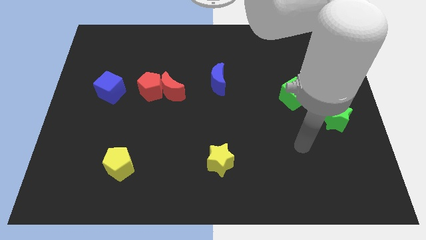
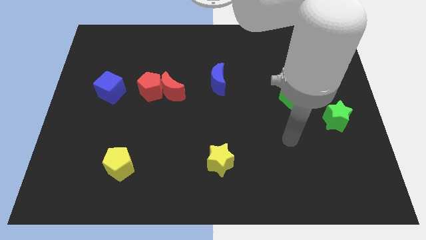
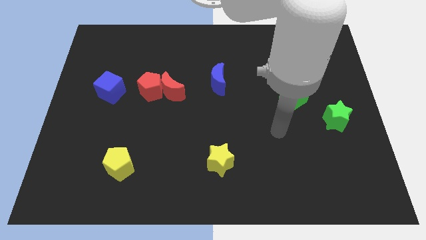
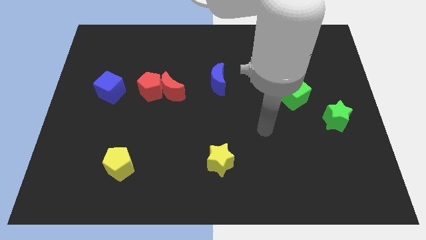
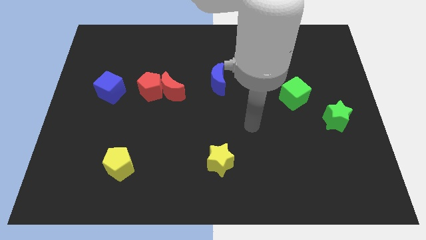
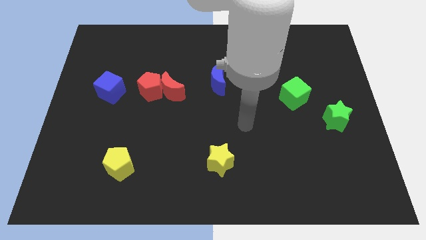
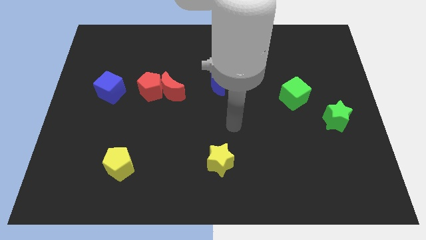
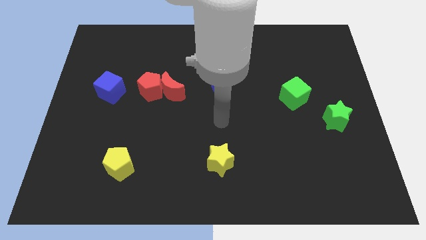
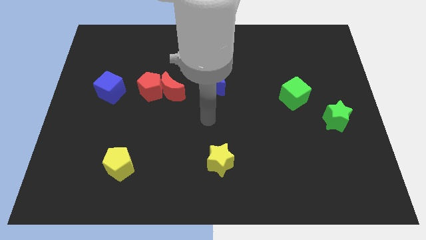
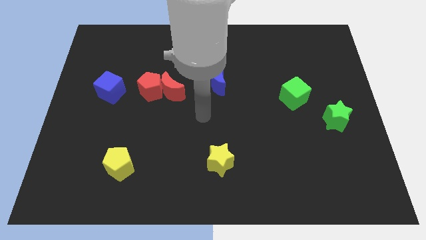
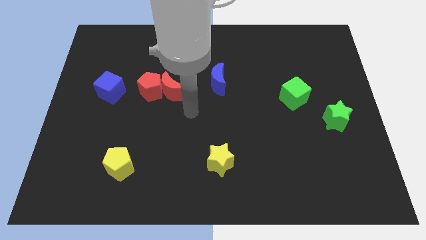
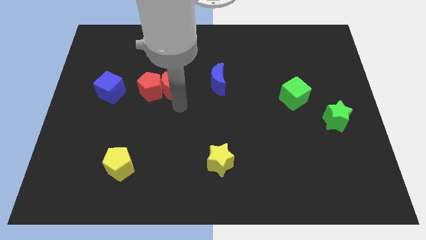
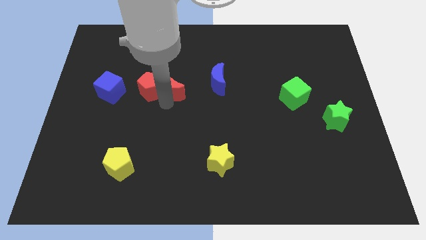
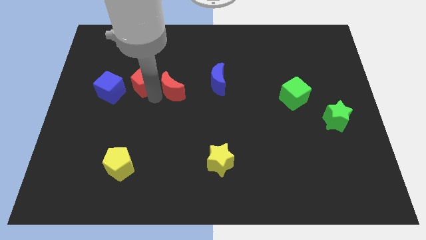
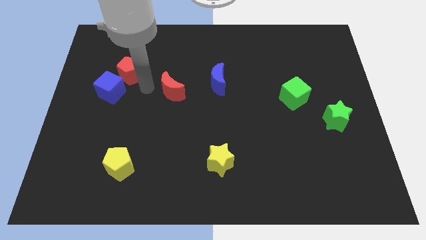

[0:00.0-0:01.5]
pull the red moon apart from the red pentagon

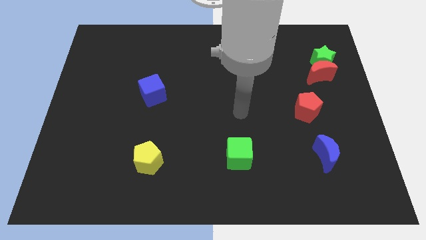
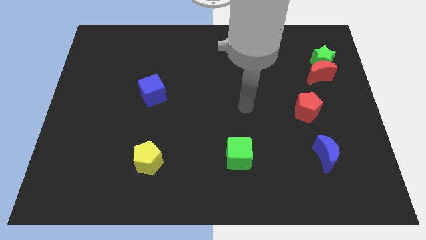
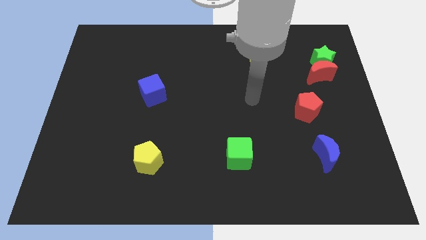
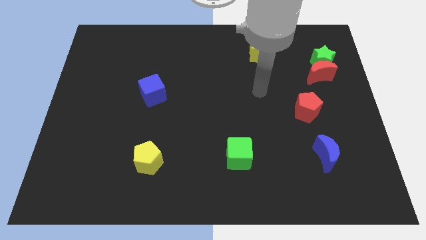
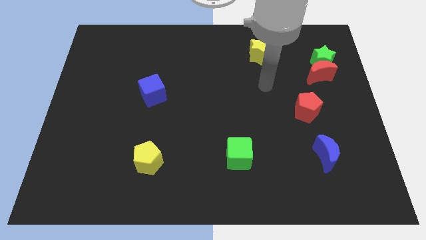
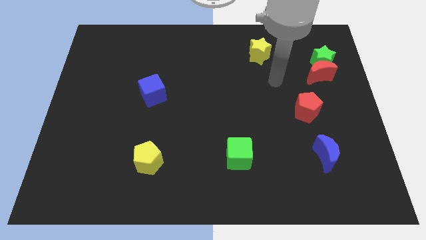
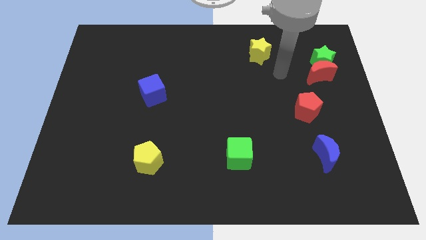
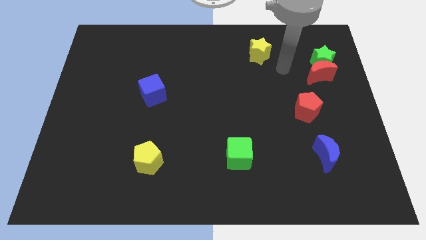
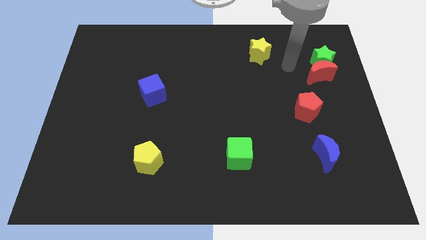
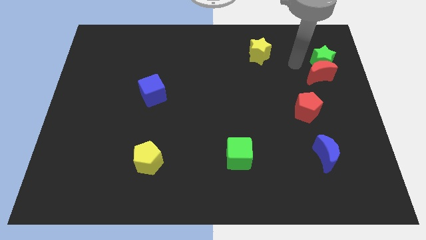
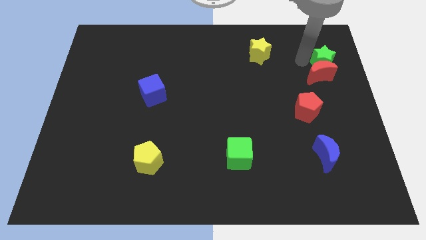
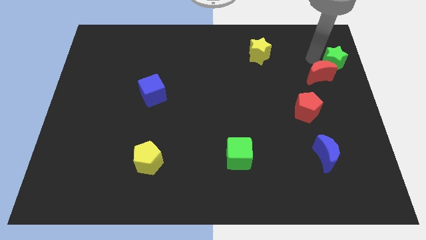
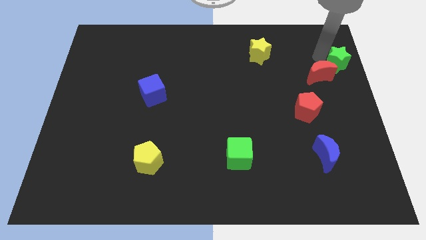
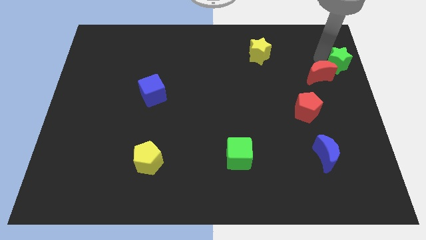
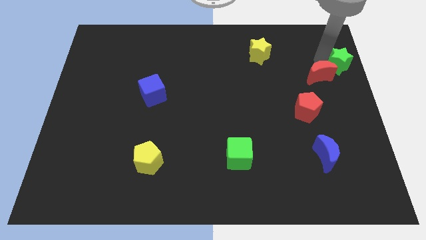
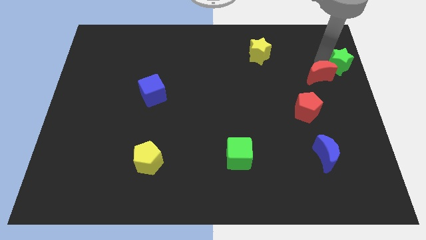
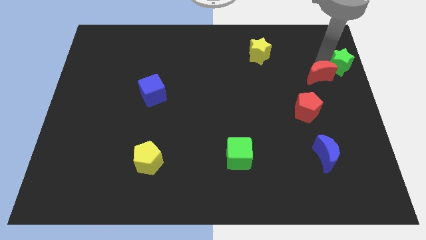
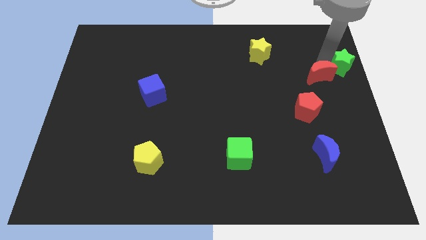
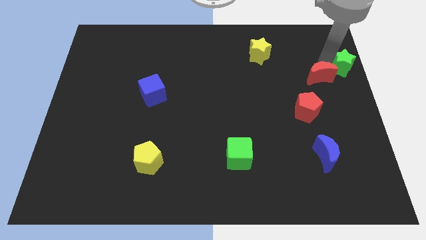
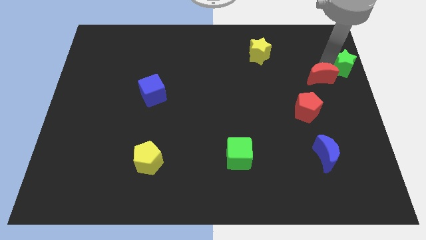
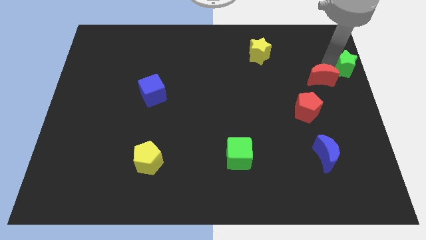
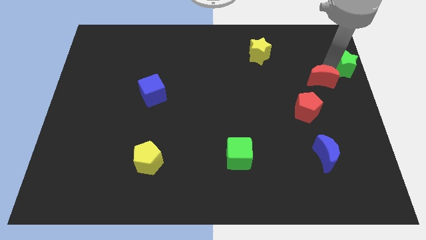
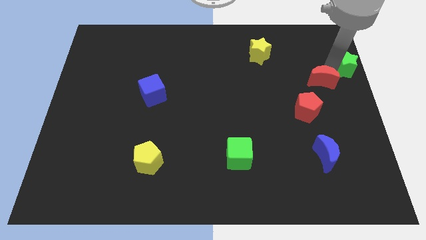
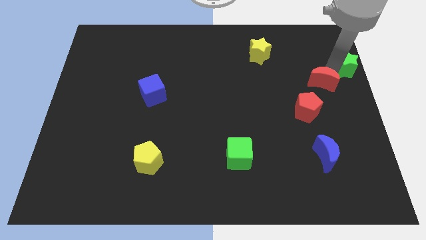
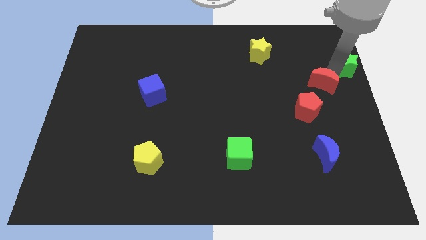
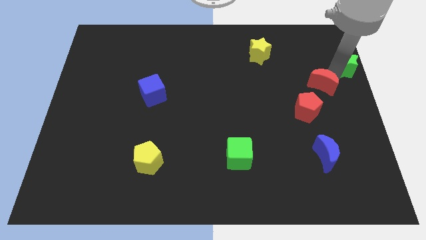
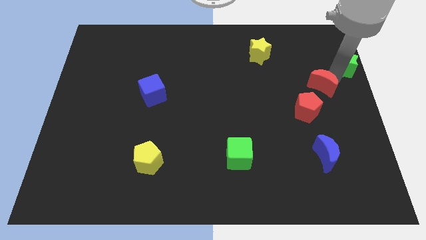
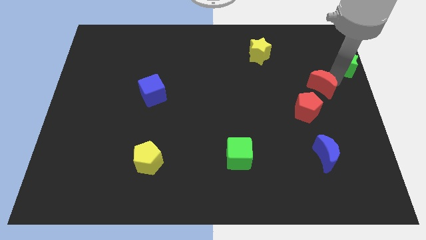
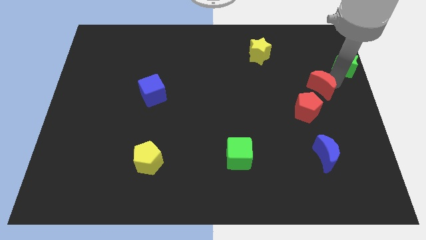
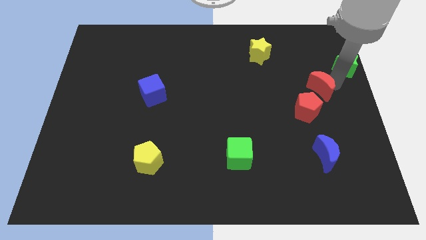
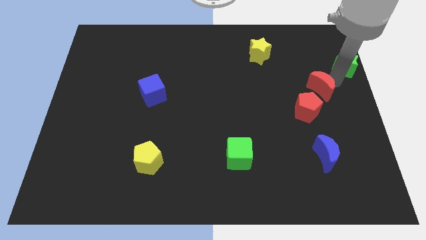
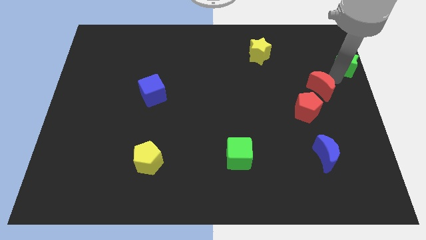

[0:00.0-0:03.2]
pull the red moon apart from the green star

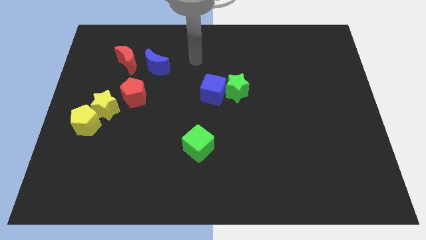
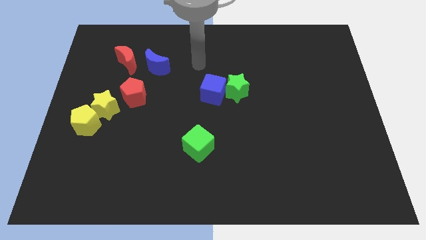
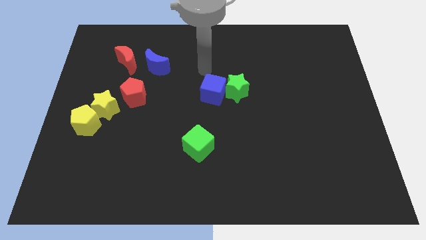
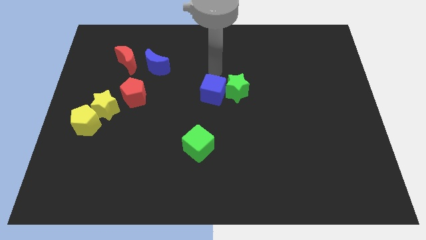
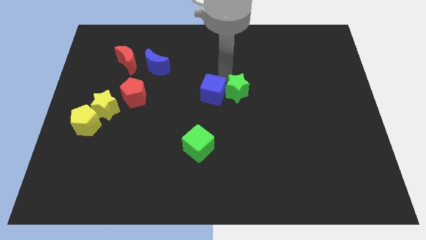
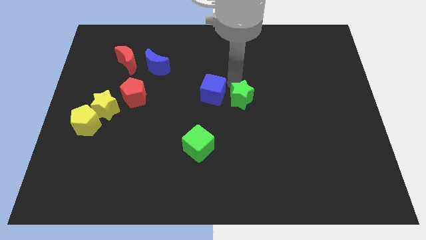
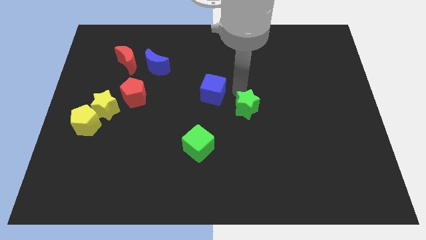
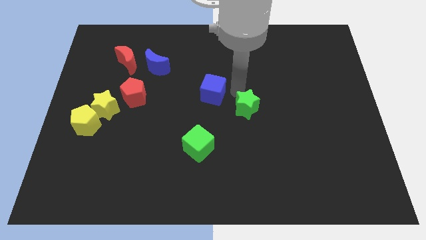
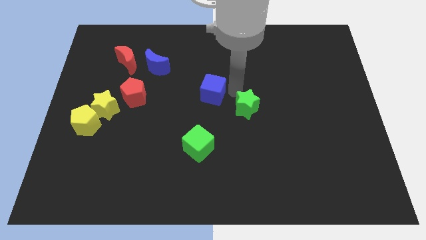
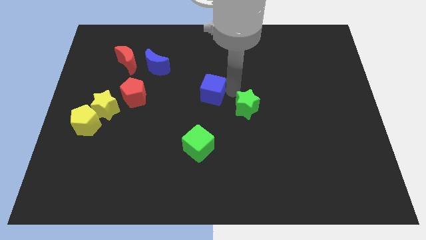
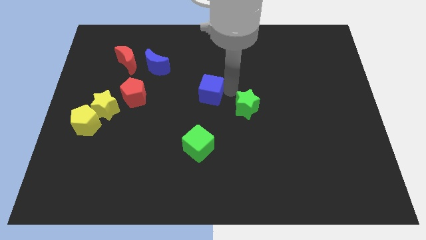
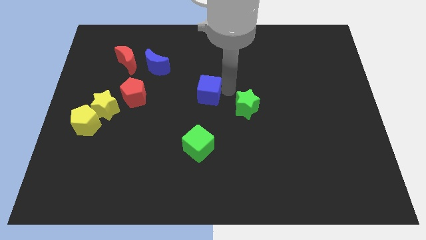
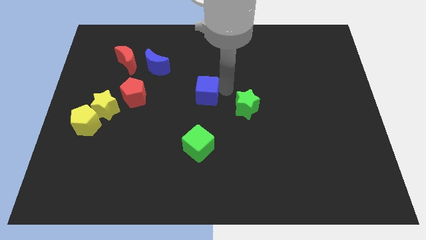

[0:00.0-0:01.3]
separate the blue cube from the green star

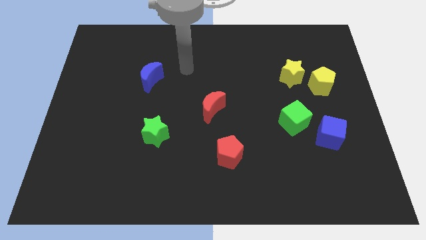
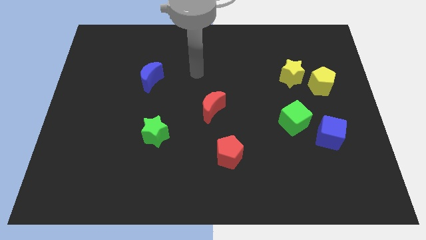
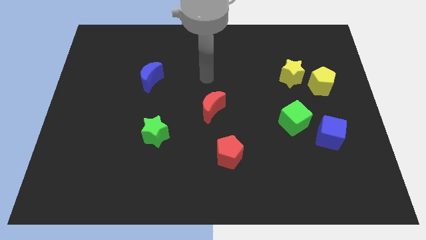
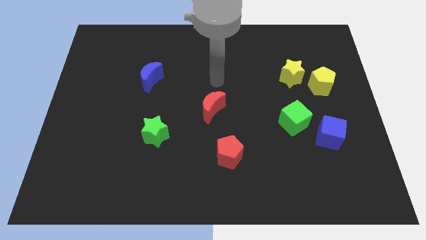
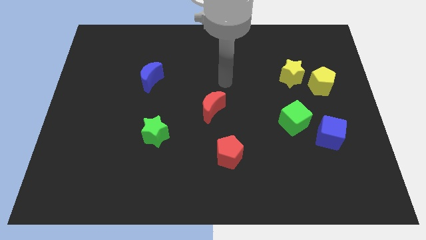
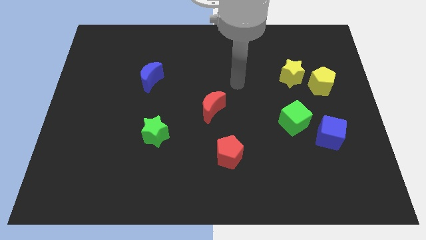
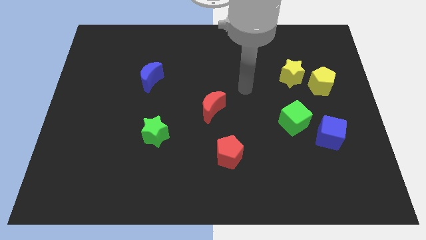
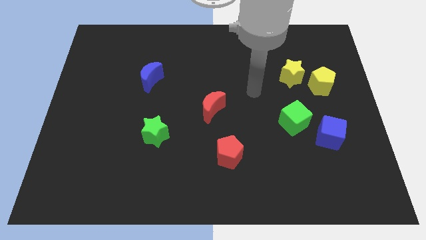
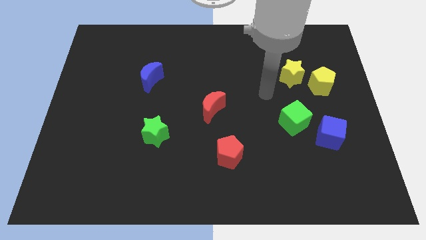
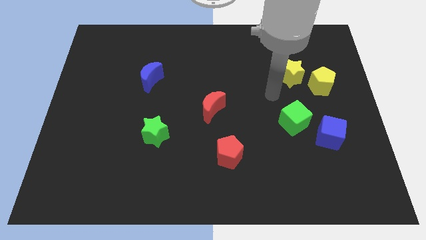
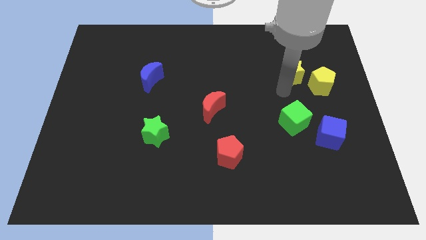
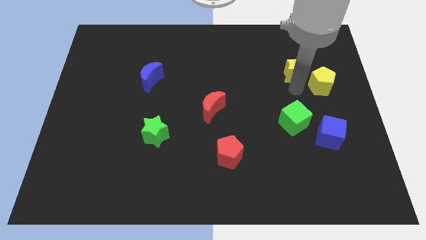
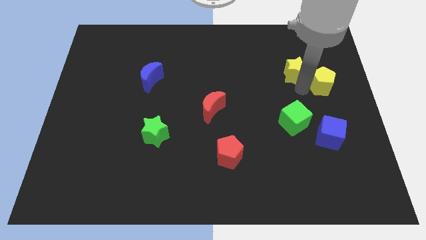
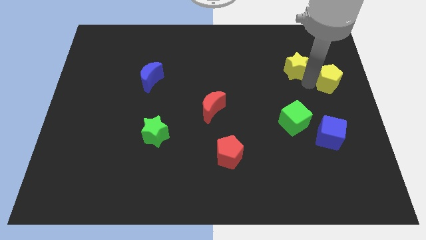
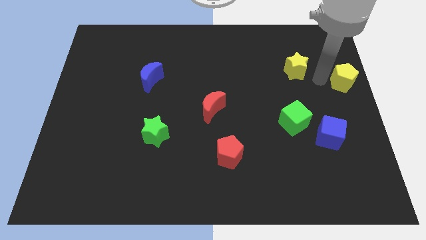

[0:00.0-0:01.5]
pull the yellow star apart from the yellow pentagon

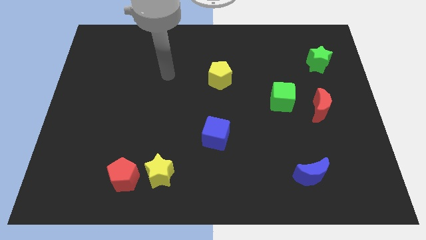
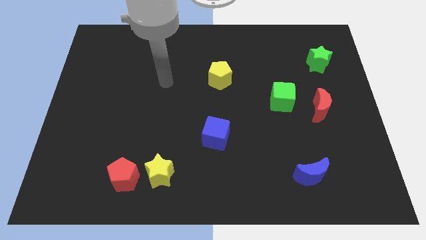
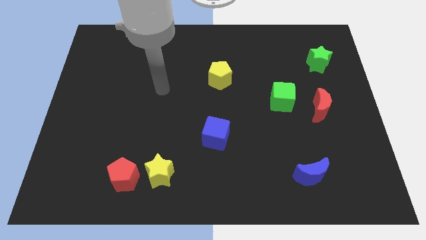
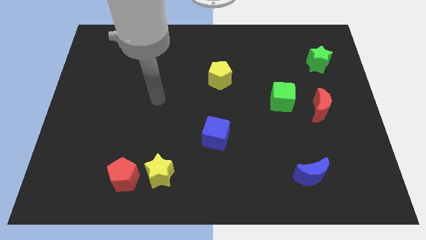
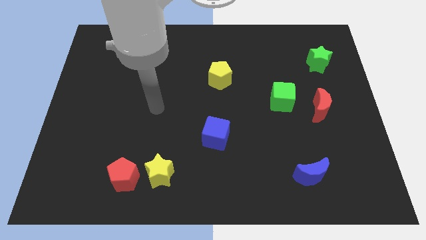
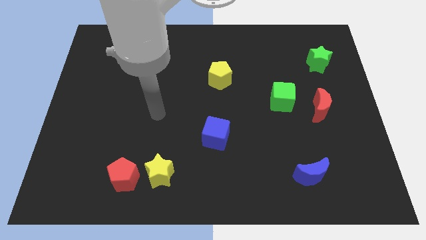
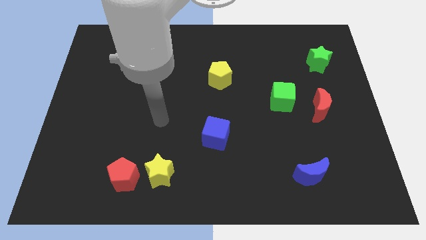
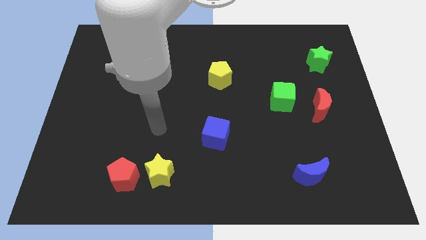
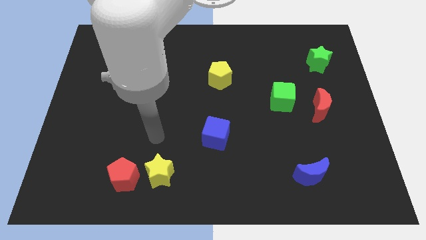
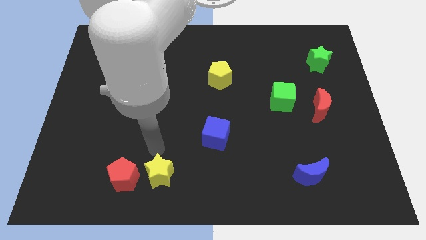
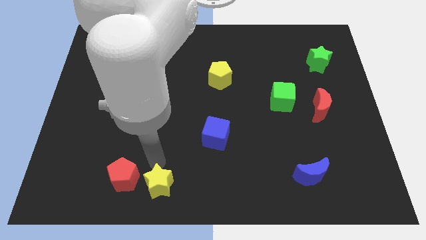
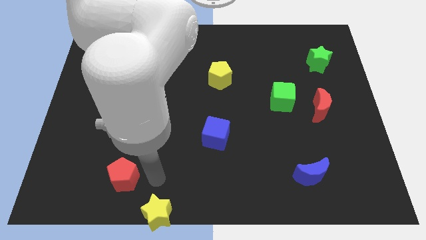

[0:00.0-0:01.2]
pull the red pentagon apart from the yellow star

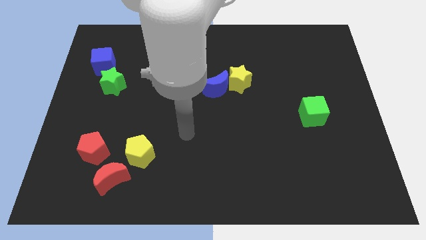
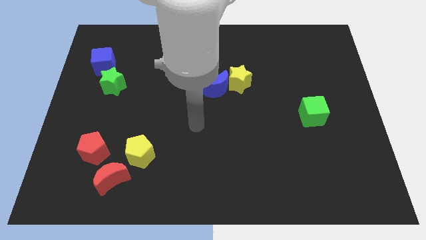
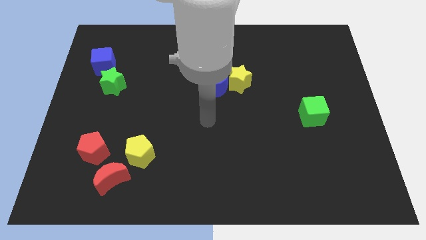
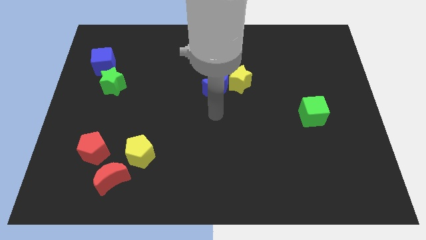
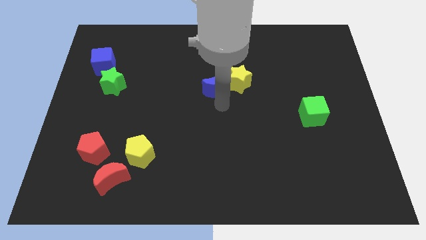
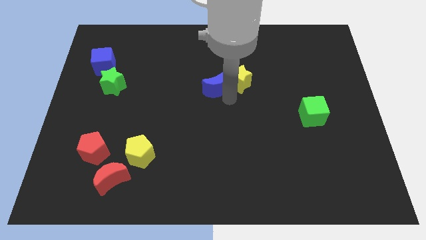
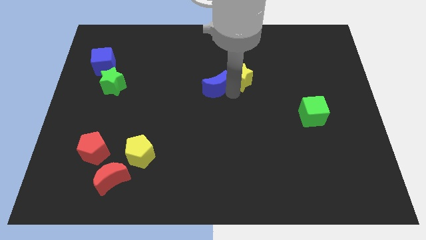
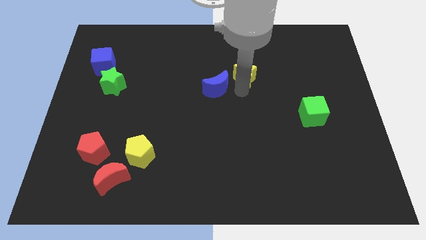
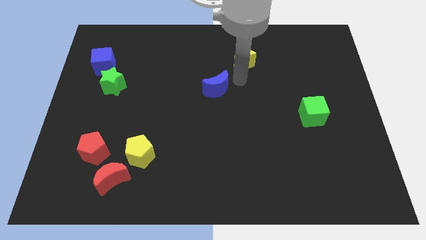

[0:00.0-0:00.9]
pull the blue moon apart from the yellow star
